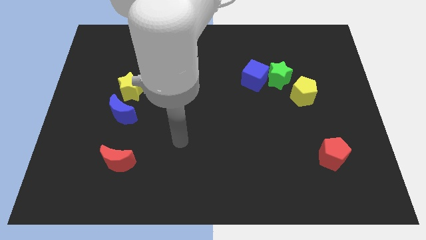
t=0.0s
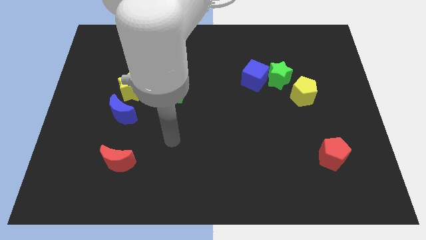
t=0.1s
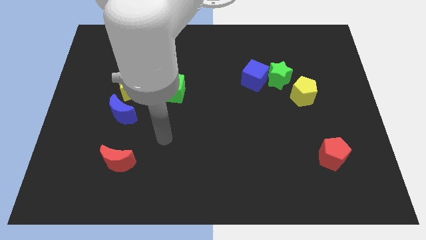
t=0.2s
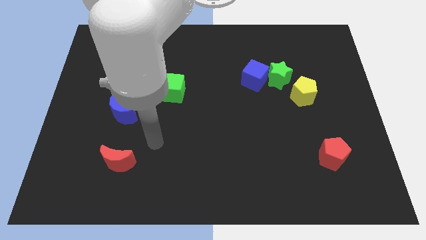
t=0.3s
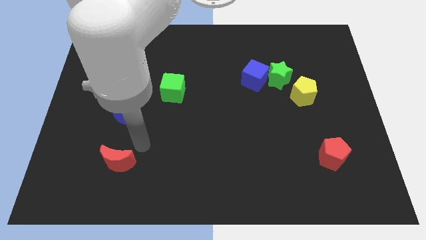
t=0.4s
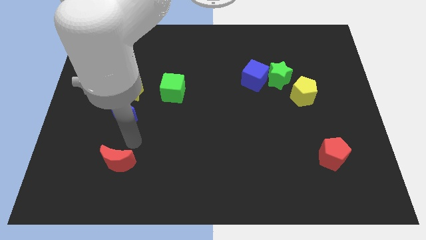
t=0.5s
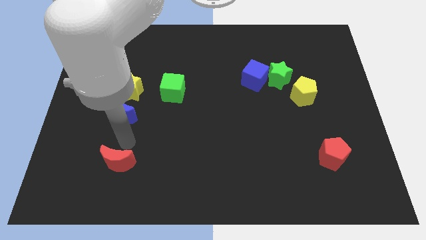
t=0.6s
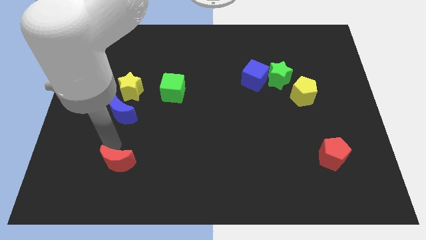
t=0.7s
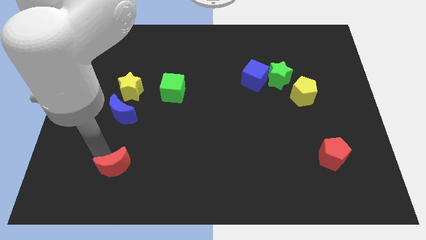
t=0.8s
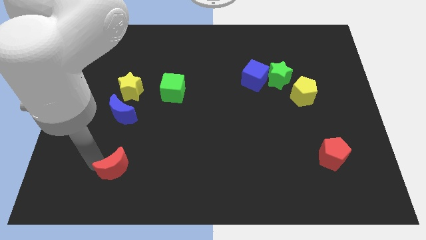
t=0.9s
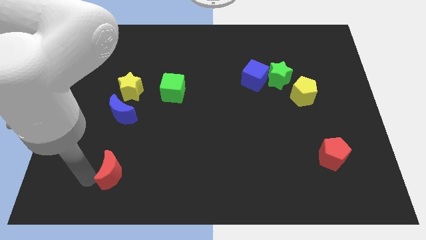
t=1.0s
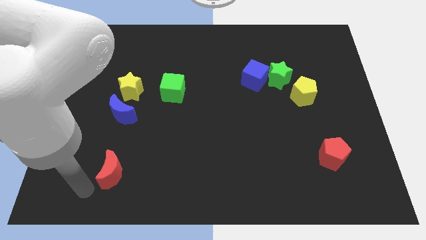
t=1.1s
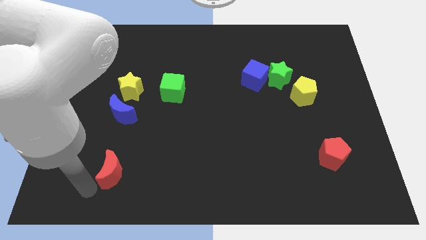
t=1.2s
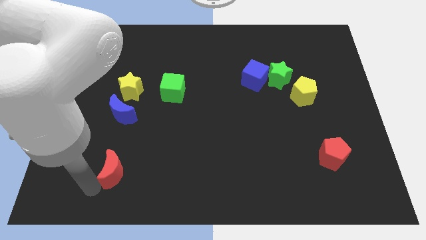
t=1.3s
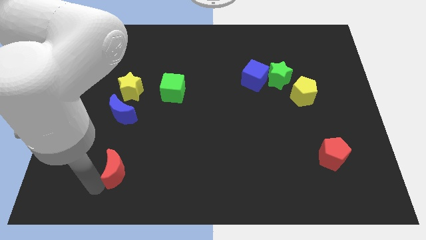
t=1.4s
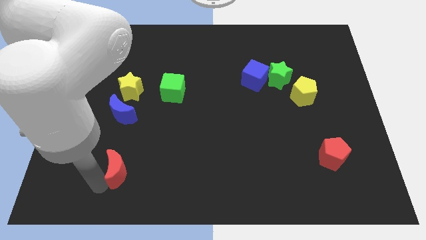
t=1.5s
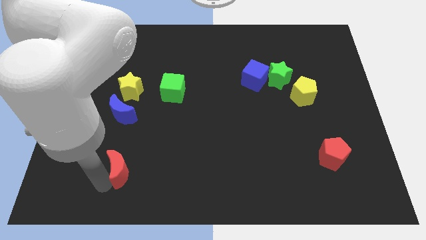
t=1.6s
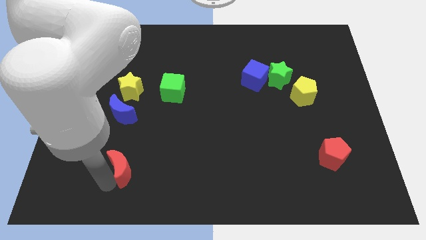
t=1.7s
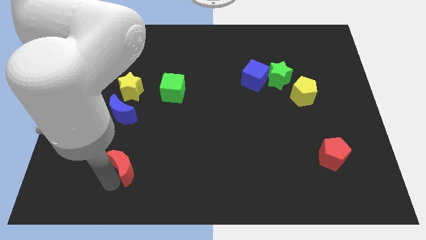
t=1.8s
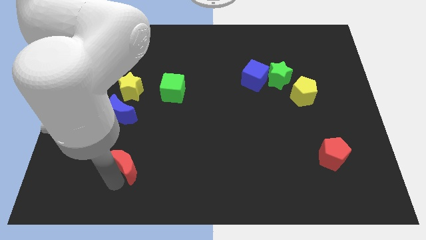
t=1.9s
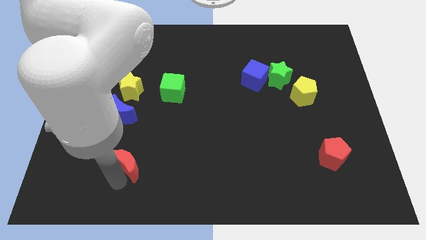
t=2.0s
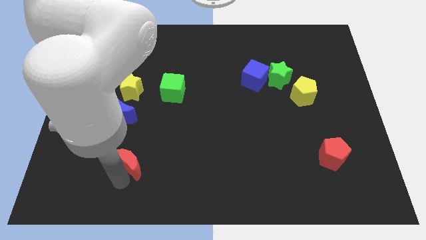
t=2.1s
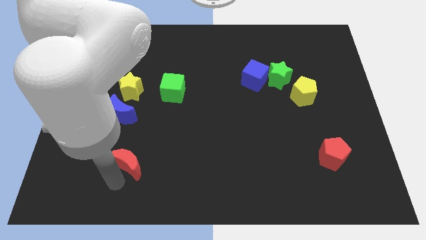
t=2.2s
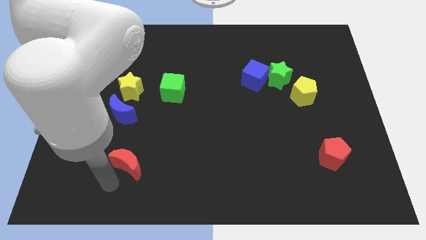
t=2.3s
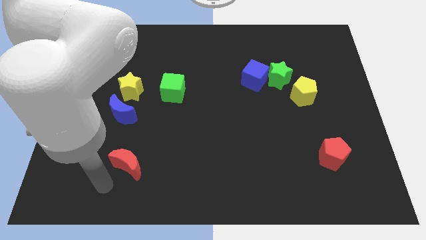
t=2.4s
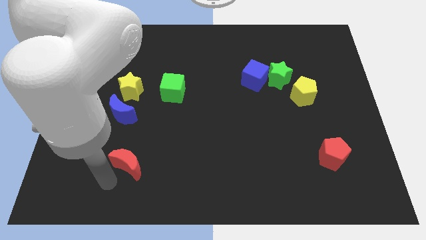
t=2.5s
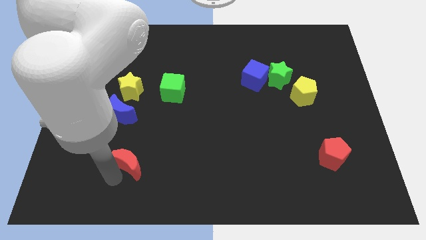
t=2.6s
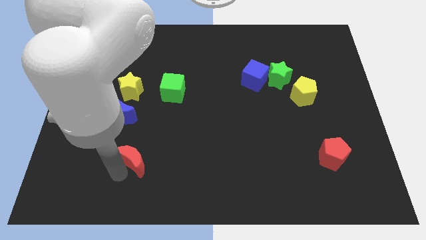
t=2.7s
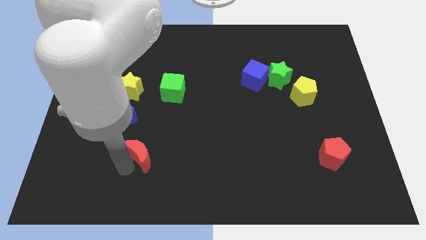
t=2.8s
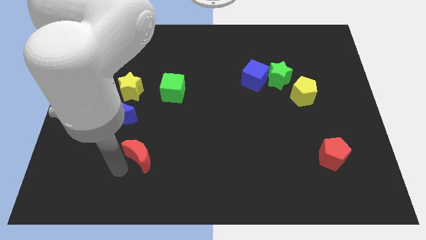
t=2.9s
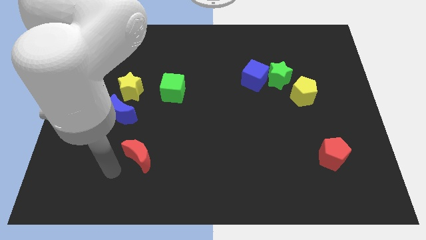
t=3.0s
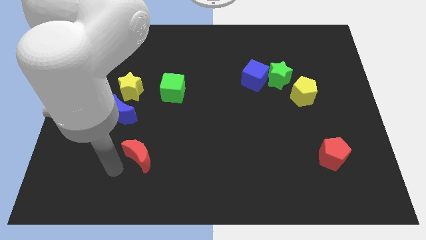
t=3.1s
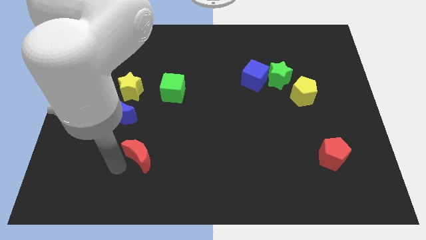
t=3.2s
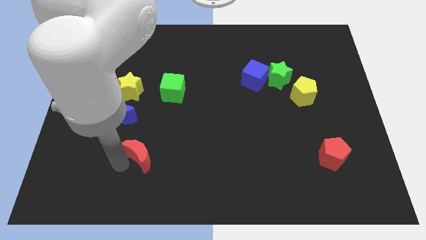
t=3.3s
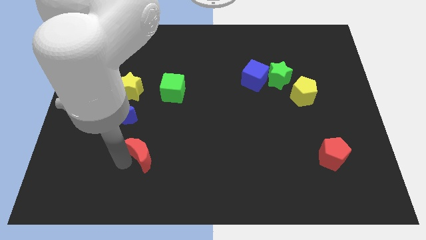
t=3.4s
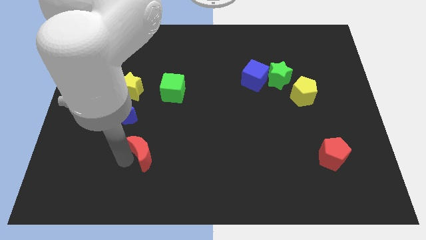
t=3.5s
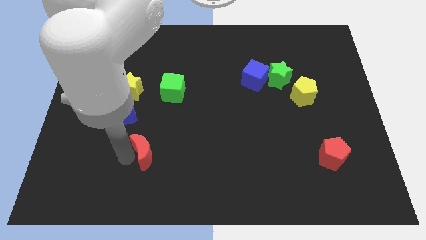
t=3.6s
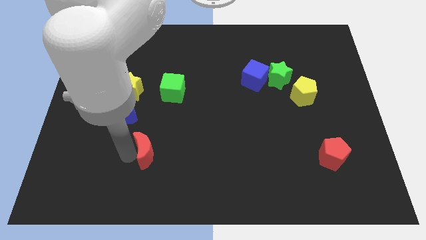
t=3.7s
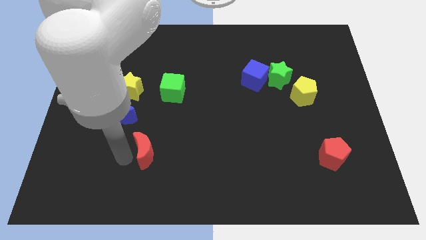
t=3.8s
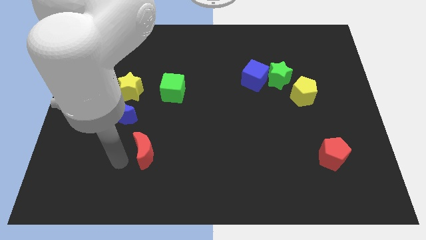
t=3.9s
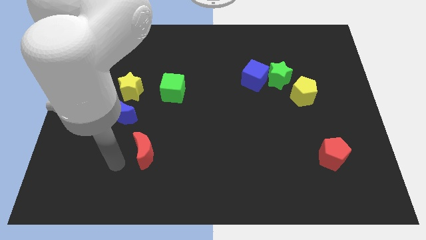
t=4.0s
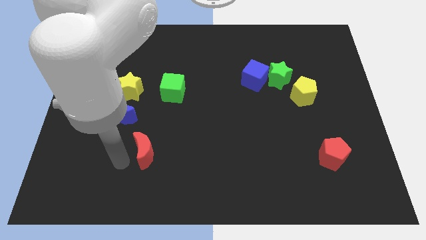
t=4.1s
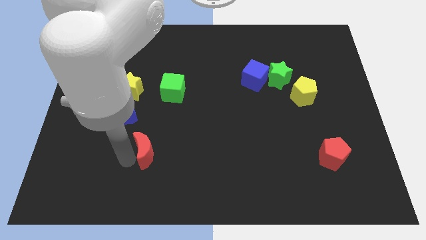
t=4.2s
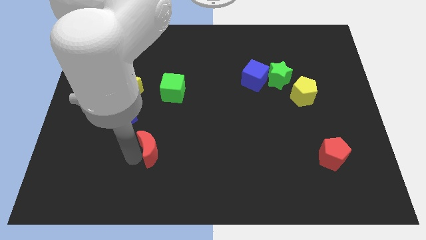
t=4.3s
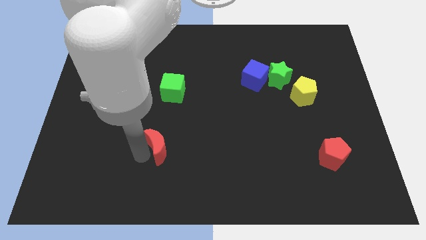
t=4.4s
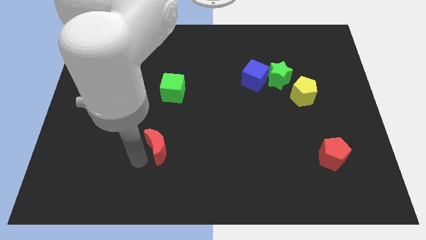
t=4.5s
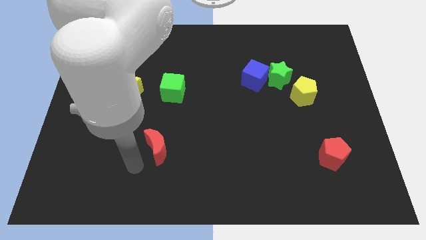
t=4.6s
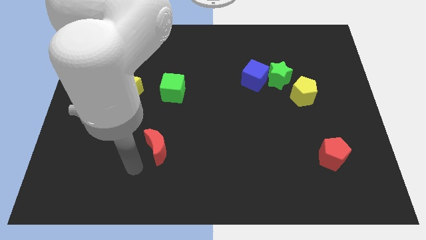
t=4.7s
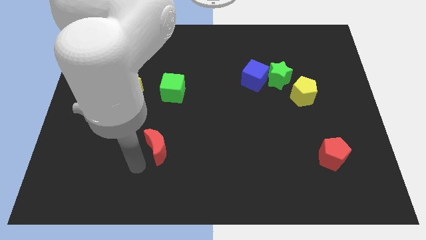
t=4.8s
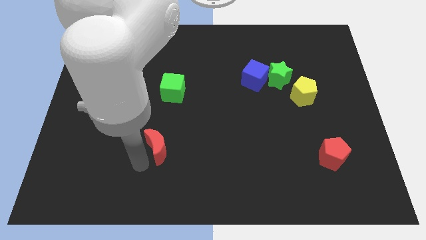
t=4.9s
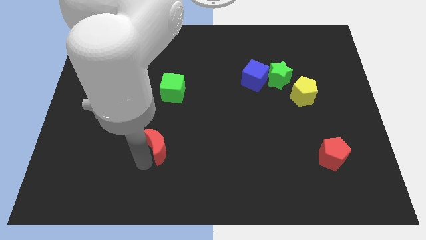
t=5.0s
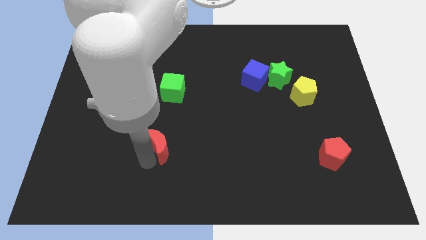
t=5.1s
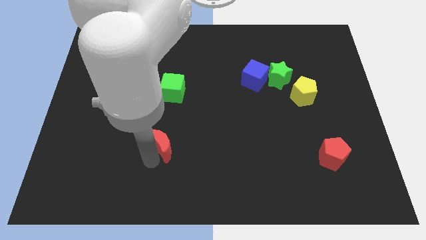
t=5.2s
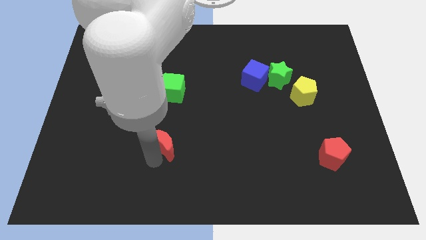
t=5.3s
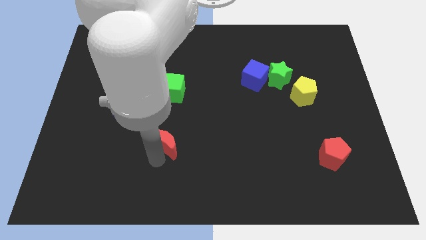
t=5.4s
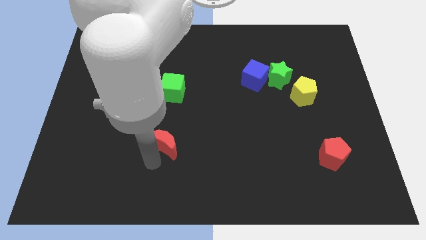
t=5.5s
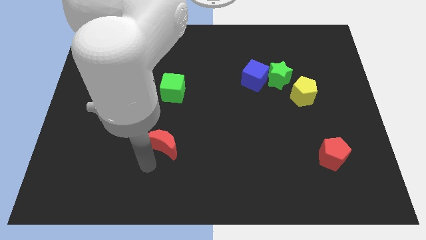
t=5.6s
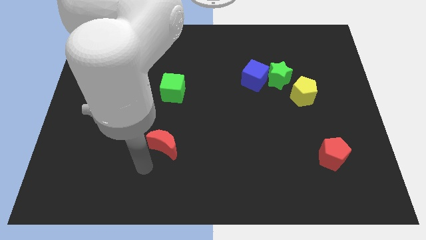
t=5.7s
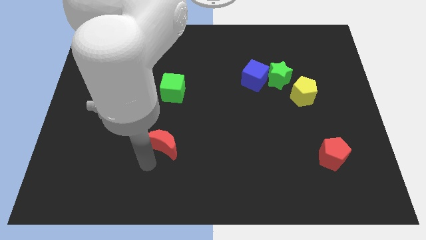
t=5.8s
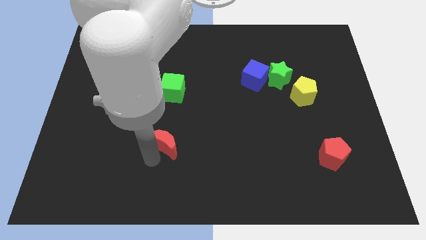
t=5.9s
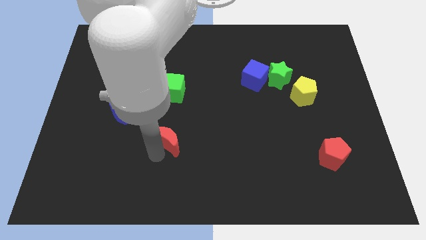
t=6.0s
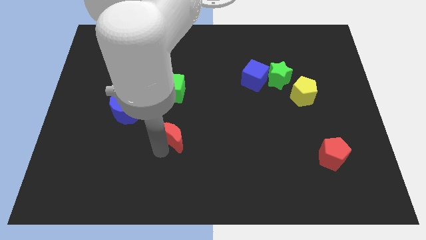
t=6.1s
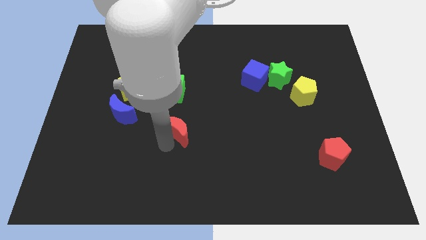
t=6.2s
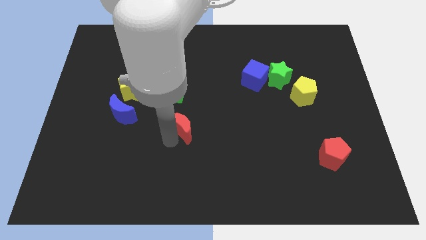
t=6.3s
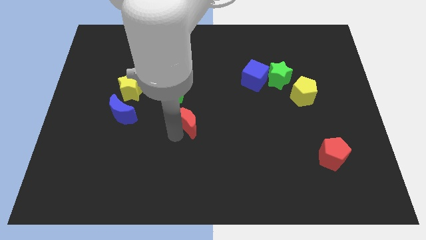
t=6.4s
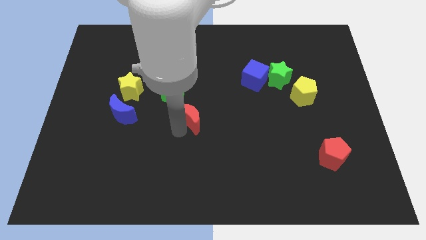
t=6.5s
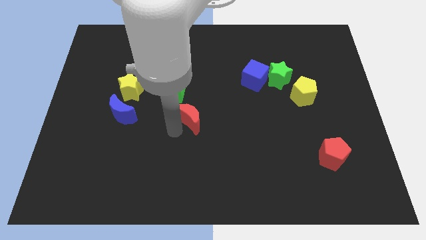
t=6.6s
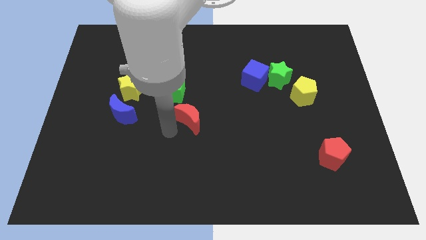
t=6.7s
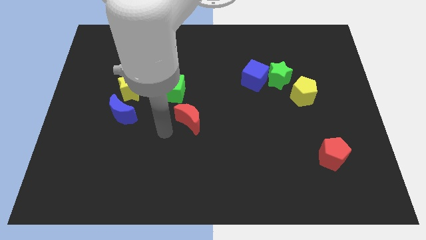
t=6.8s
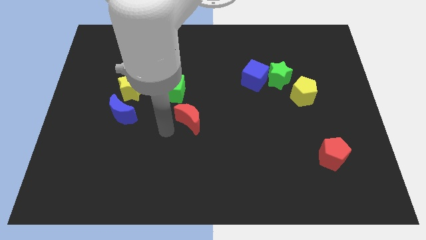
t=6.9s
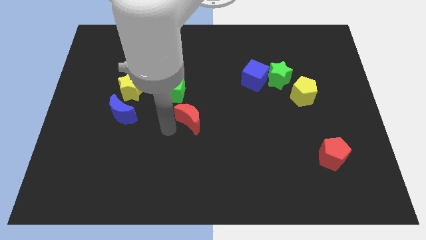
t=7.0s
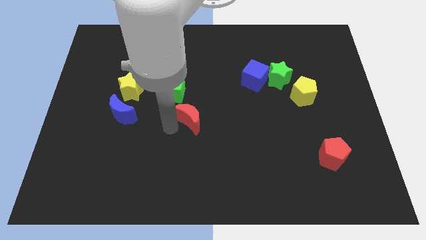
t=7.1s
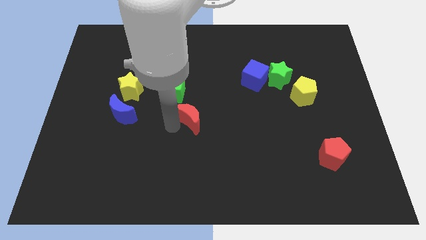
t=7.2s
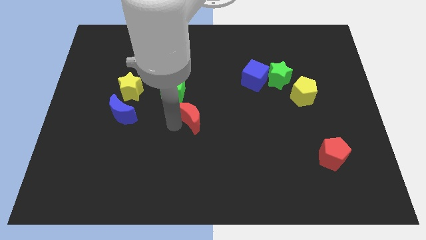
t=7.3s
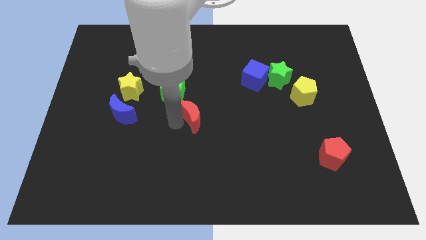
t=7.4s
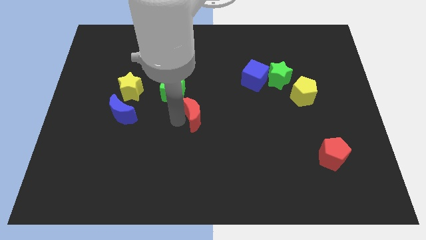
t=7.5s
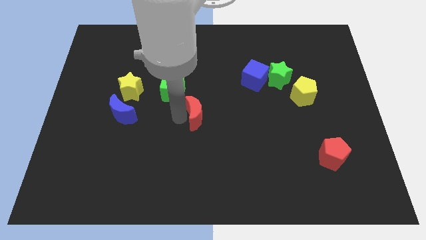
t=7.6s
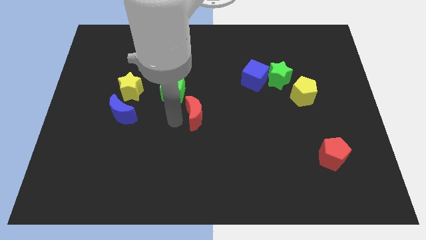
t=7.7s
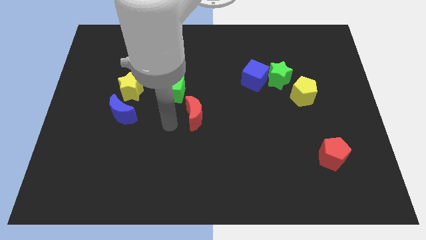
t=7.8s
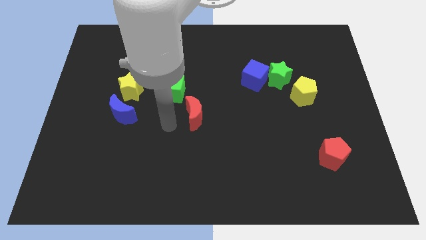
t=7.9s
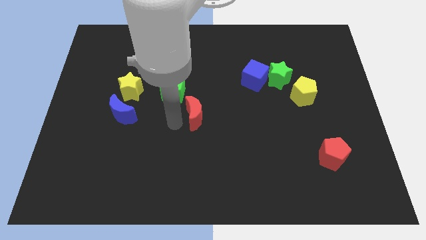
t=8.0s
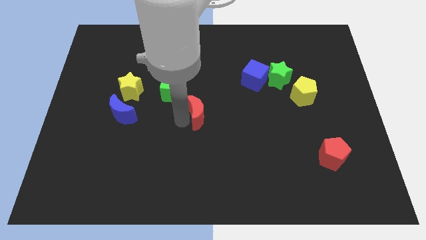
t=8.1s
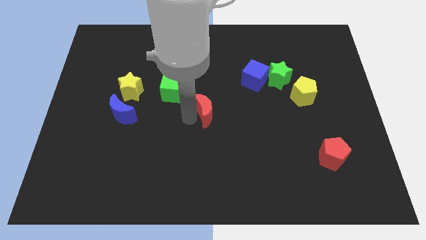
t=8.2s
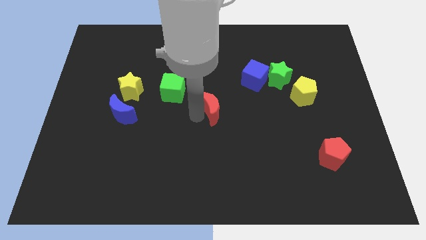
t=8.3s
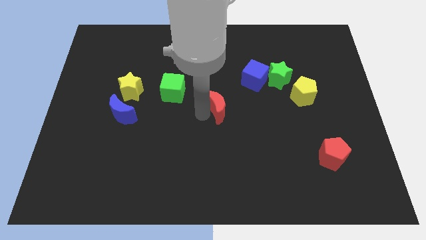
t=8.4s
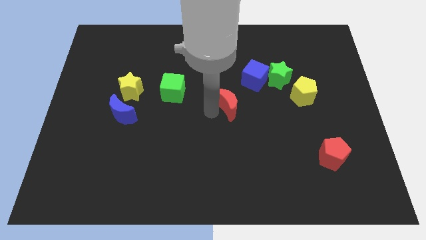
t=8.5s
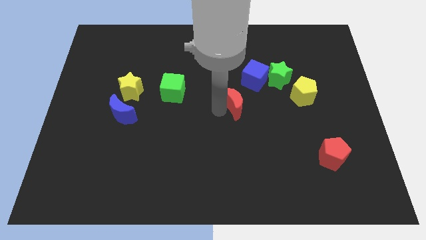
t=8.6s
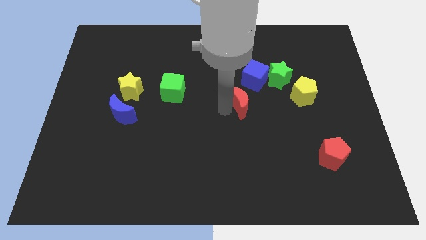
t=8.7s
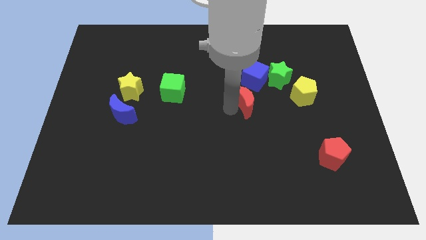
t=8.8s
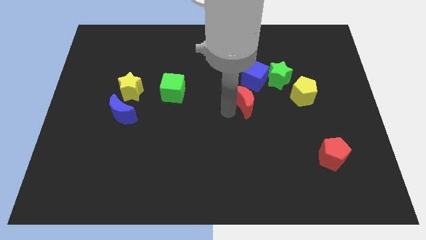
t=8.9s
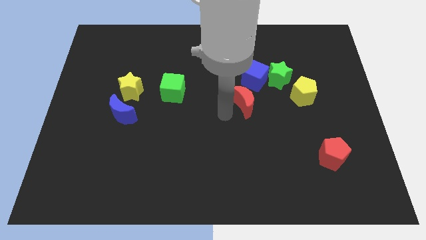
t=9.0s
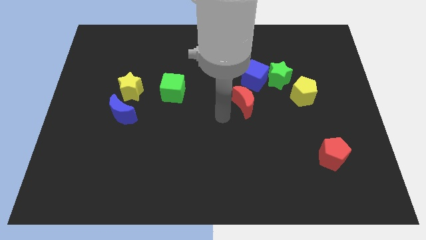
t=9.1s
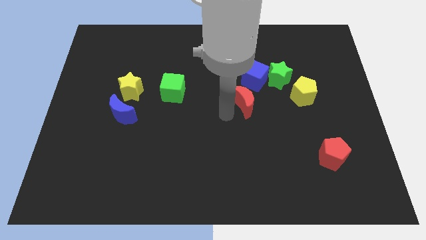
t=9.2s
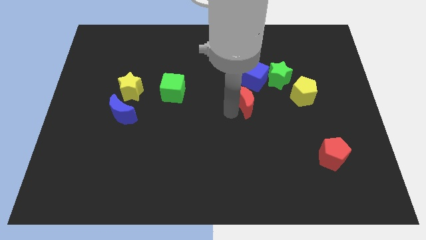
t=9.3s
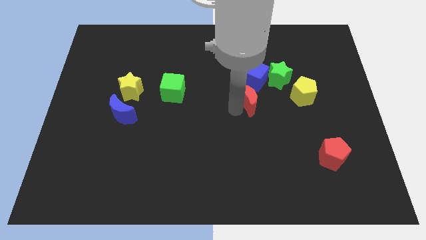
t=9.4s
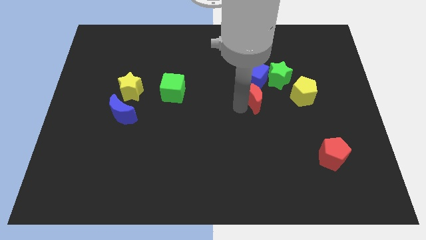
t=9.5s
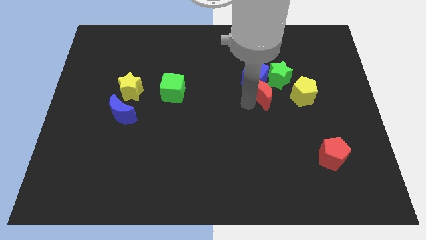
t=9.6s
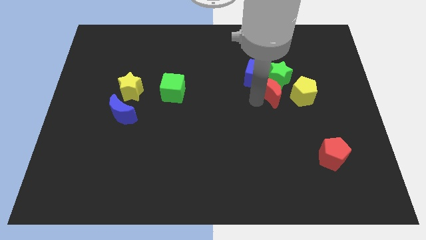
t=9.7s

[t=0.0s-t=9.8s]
slide the red moon to the green star
